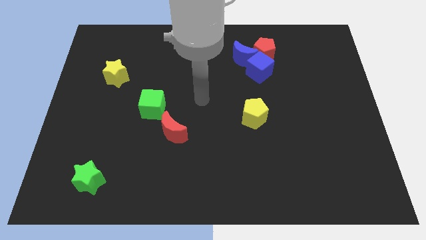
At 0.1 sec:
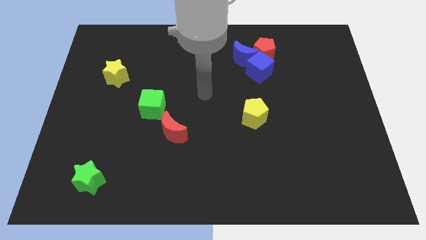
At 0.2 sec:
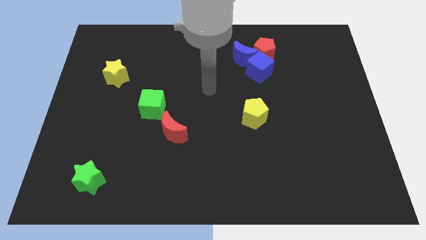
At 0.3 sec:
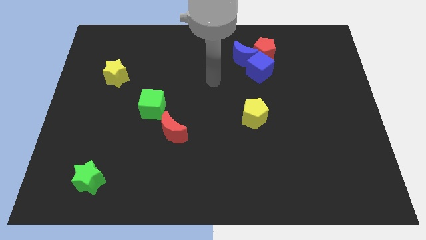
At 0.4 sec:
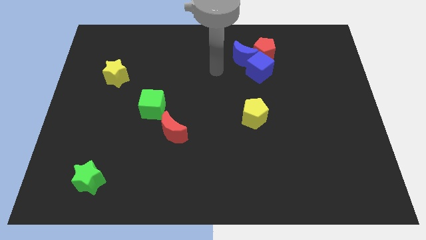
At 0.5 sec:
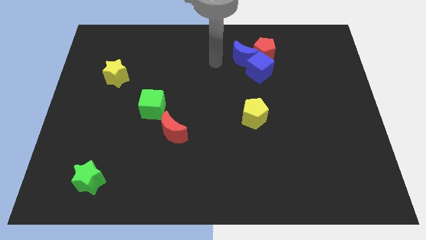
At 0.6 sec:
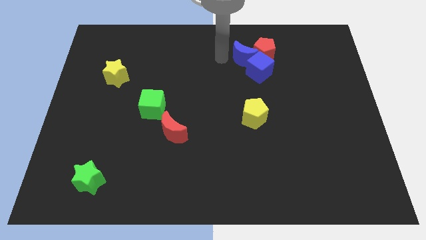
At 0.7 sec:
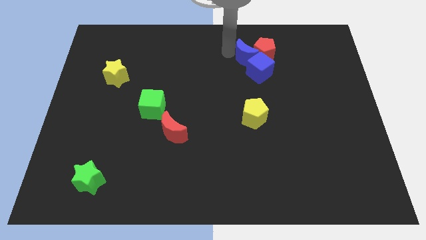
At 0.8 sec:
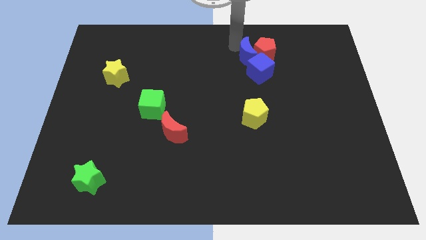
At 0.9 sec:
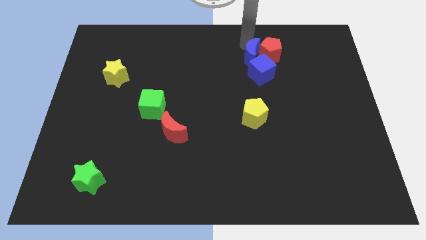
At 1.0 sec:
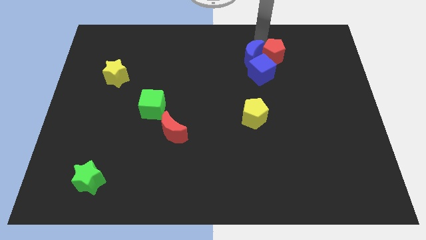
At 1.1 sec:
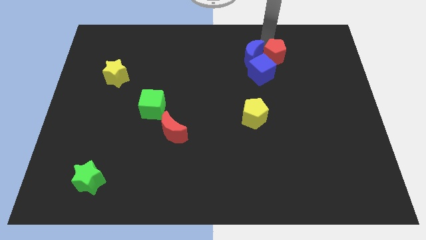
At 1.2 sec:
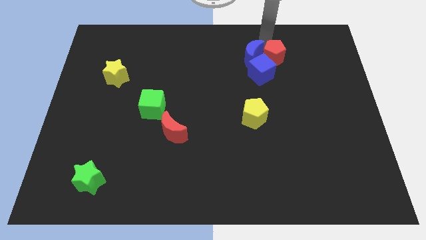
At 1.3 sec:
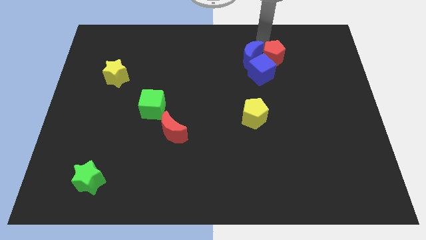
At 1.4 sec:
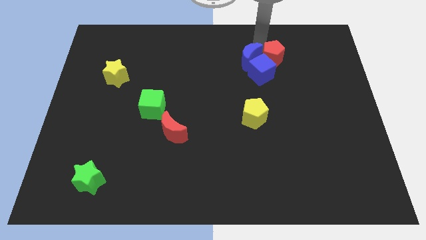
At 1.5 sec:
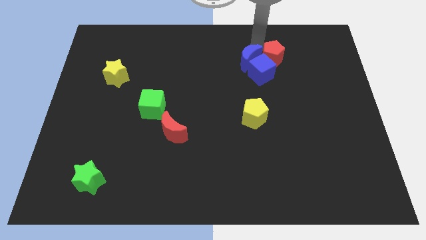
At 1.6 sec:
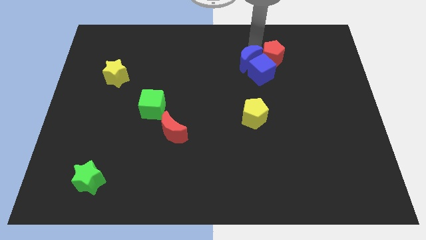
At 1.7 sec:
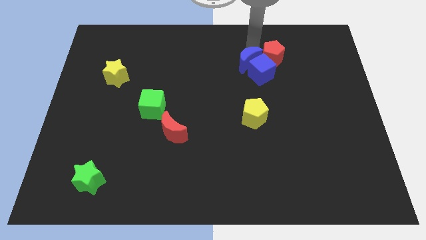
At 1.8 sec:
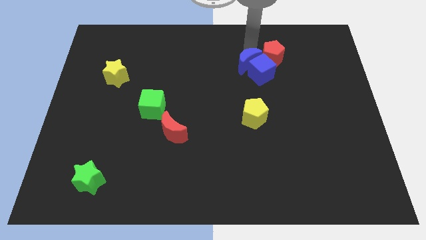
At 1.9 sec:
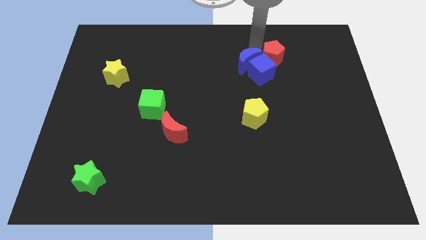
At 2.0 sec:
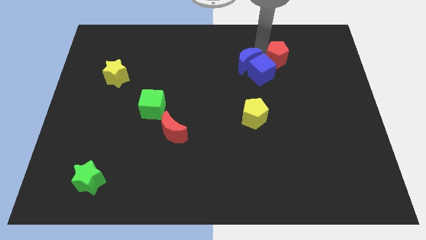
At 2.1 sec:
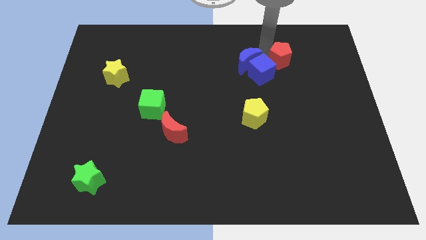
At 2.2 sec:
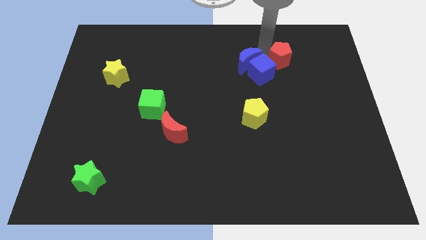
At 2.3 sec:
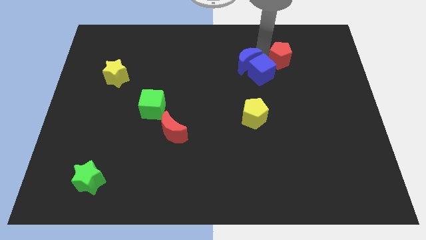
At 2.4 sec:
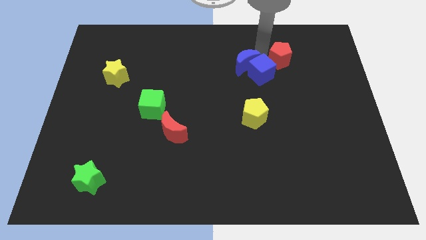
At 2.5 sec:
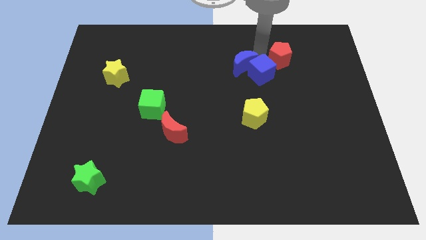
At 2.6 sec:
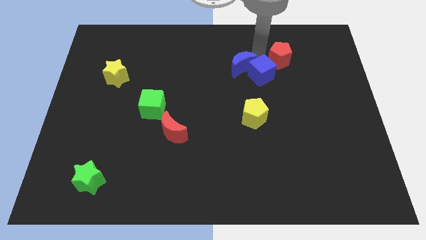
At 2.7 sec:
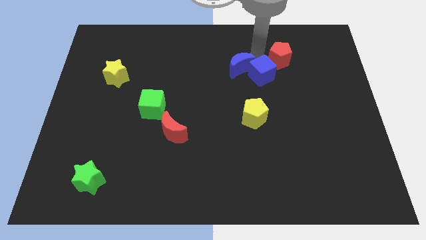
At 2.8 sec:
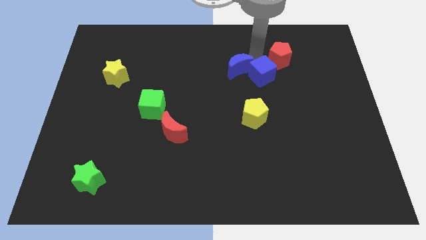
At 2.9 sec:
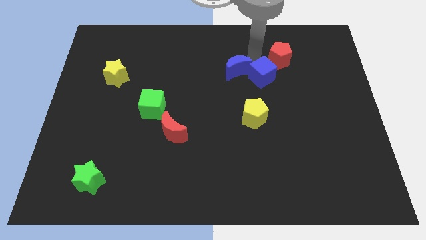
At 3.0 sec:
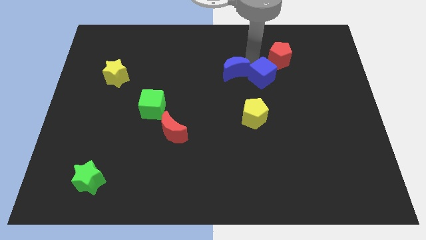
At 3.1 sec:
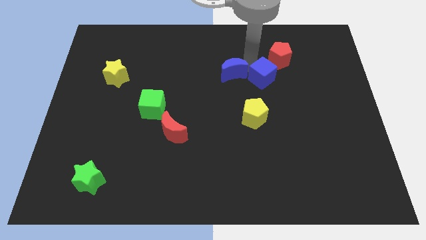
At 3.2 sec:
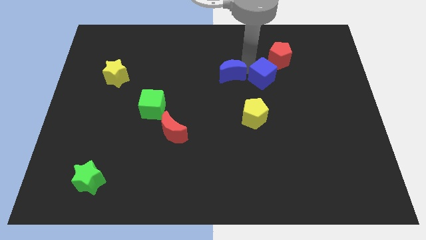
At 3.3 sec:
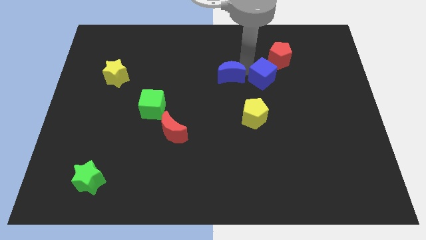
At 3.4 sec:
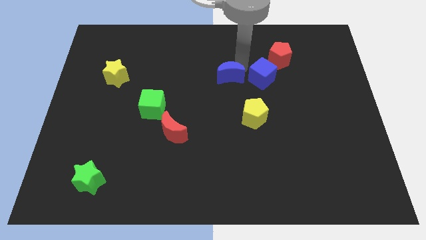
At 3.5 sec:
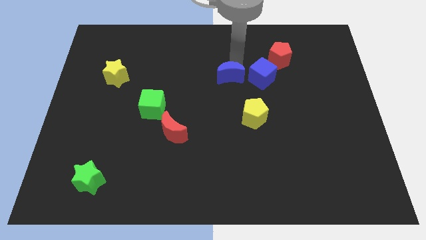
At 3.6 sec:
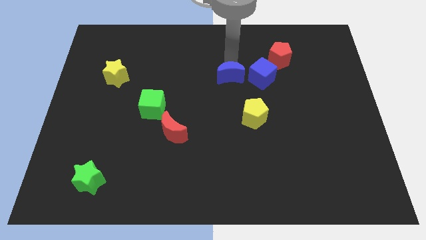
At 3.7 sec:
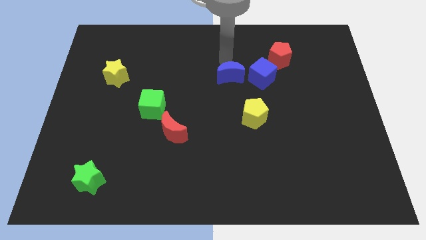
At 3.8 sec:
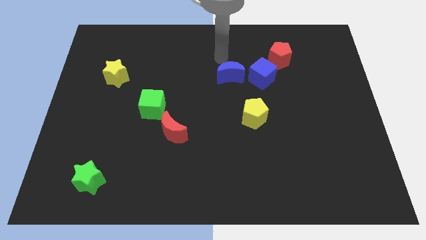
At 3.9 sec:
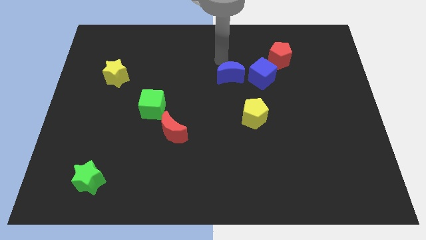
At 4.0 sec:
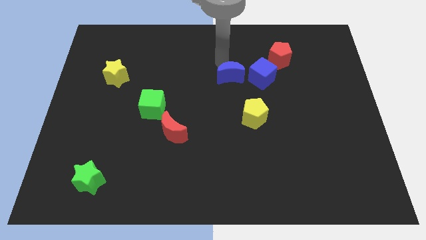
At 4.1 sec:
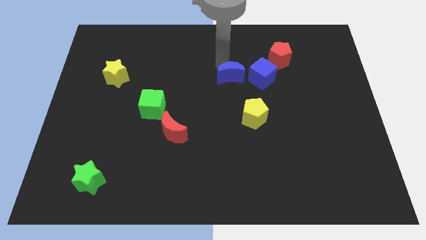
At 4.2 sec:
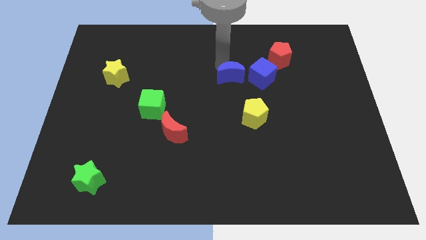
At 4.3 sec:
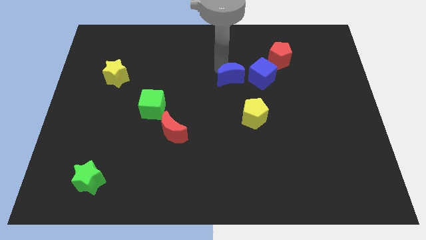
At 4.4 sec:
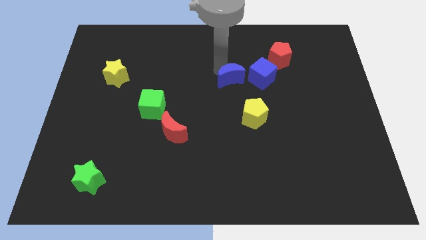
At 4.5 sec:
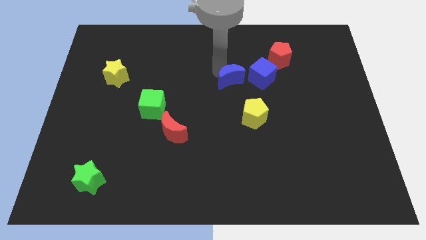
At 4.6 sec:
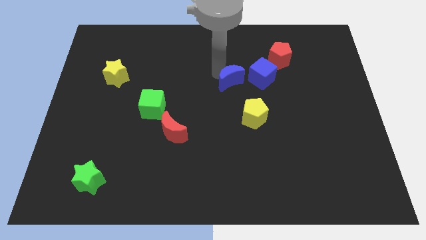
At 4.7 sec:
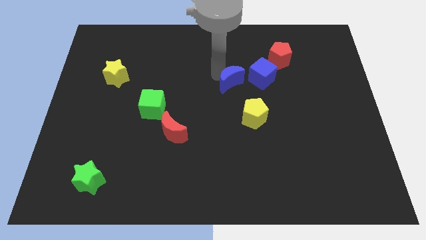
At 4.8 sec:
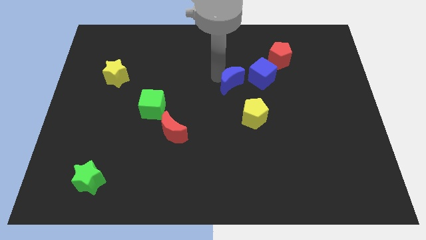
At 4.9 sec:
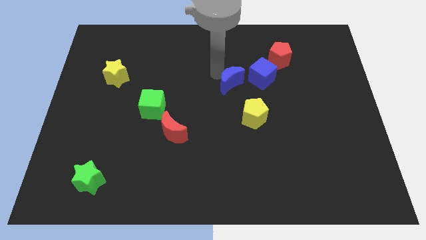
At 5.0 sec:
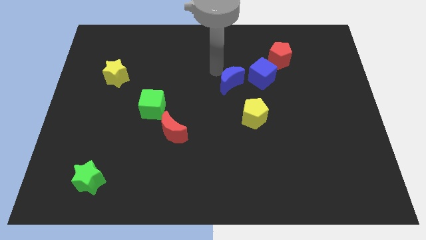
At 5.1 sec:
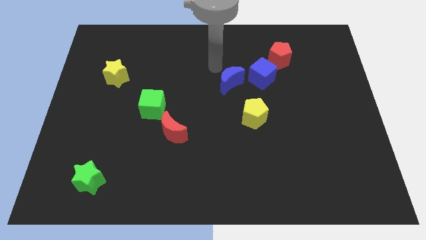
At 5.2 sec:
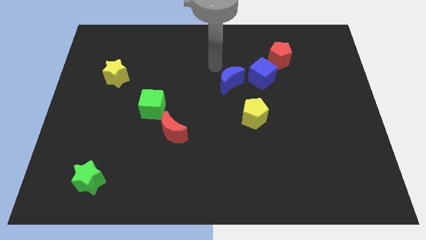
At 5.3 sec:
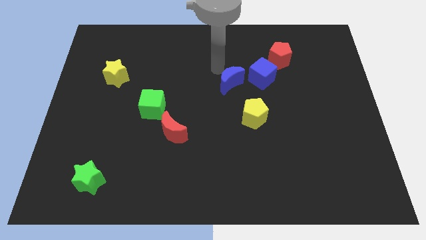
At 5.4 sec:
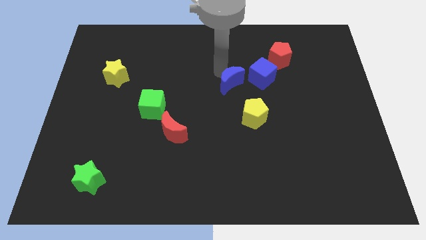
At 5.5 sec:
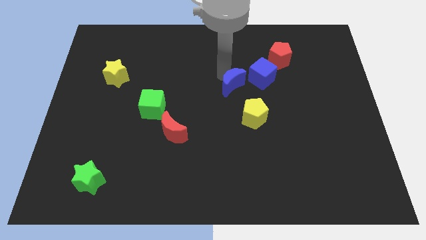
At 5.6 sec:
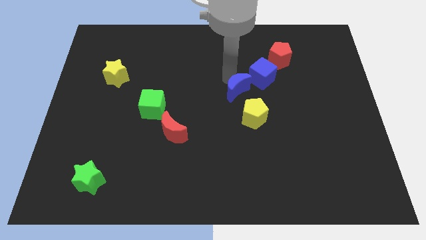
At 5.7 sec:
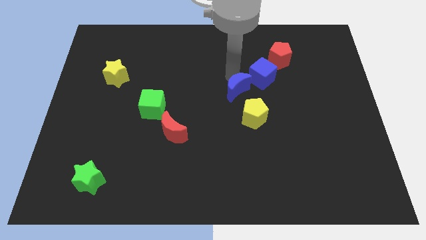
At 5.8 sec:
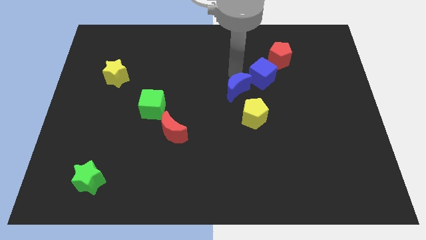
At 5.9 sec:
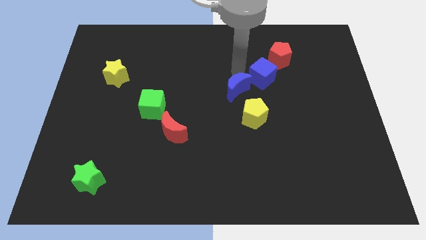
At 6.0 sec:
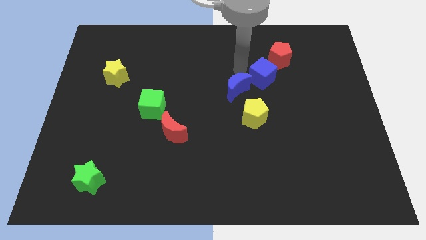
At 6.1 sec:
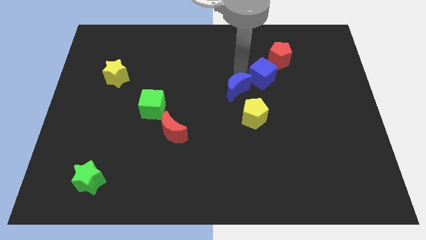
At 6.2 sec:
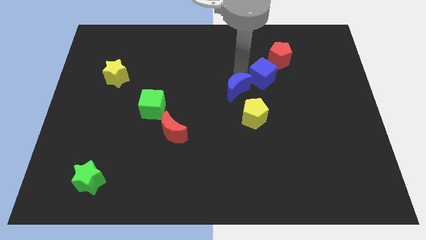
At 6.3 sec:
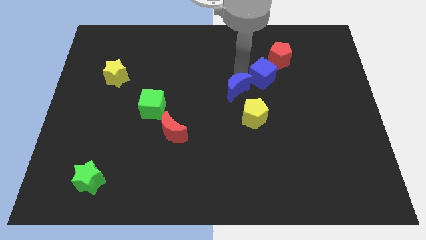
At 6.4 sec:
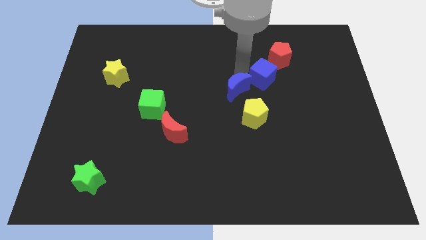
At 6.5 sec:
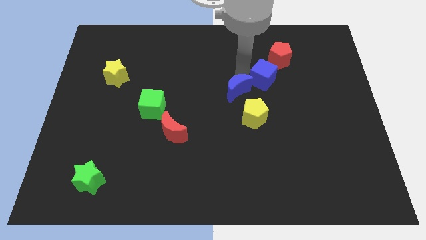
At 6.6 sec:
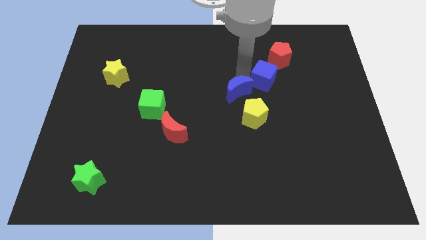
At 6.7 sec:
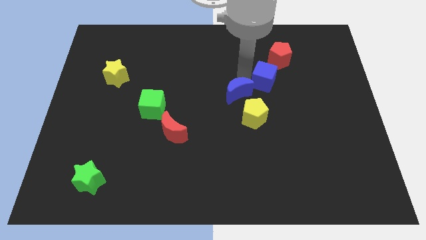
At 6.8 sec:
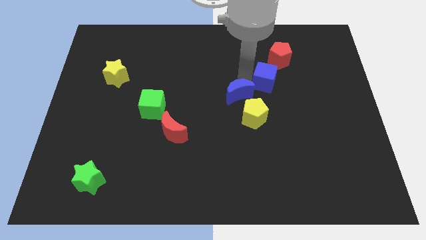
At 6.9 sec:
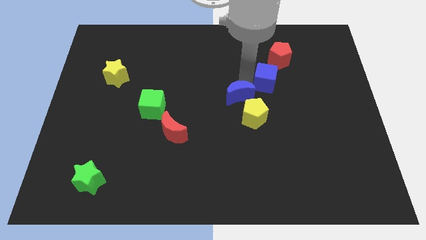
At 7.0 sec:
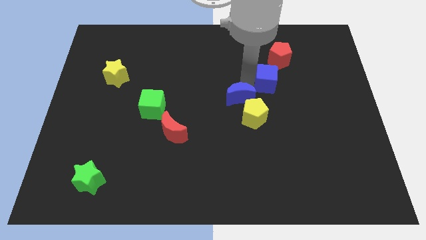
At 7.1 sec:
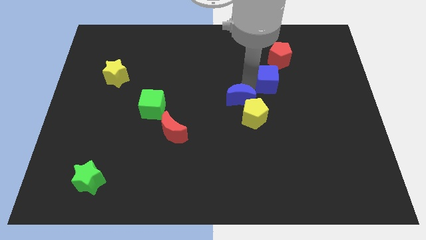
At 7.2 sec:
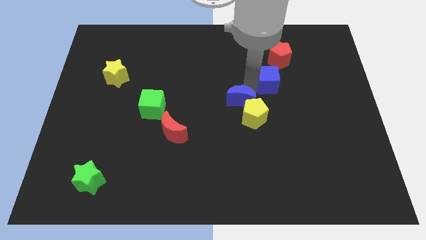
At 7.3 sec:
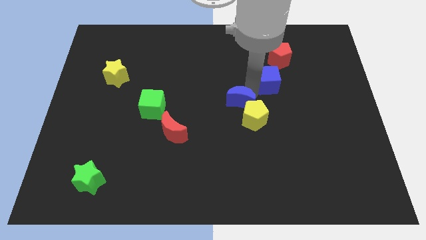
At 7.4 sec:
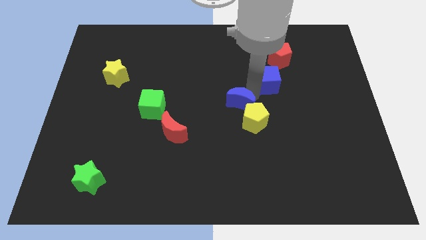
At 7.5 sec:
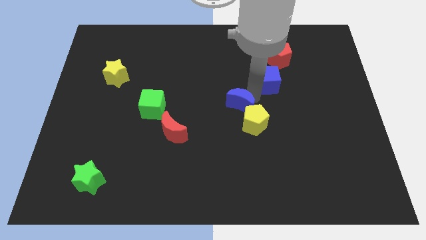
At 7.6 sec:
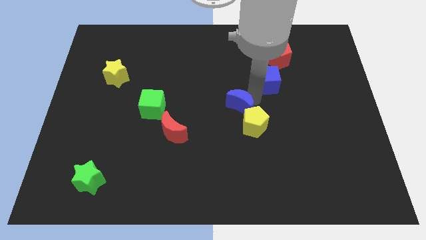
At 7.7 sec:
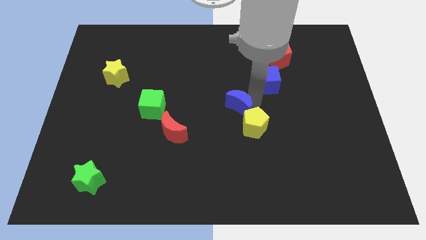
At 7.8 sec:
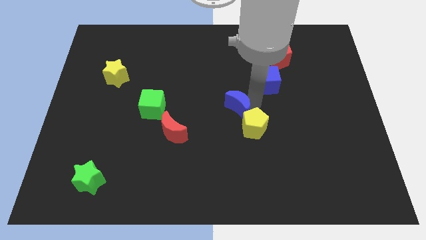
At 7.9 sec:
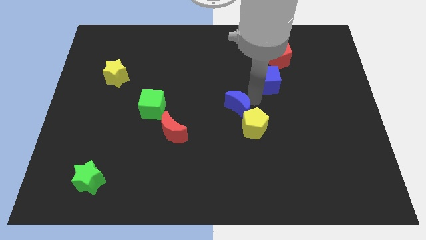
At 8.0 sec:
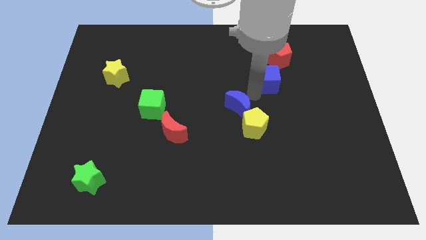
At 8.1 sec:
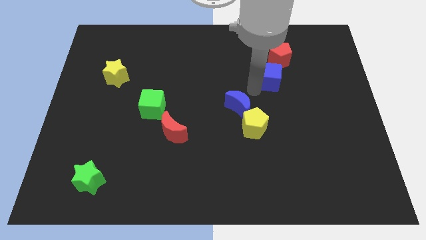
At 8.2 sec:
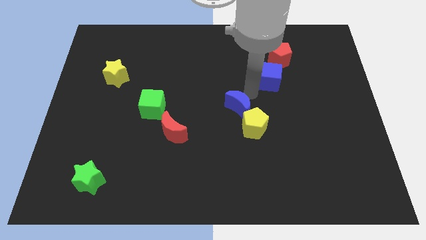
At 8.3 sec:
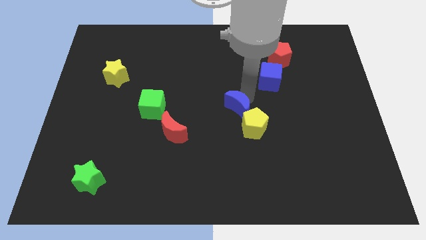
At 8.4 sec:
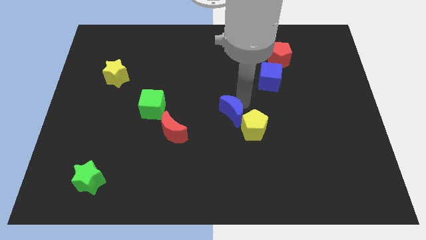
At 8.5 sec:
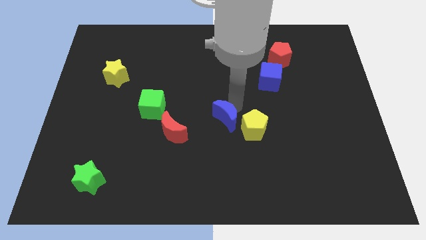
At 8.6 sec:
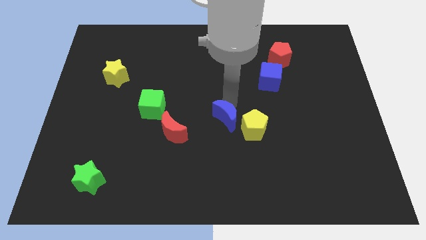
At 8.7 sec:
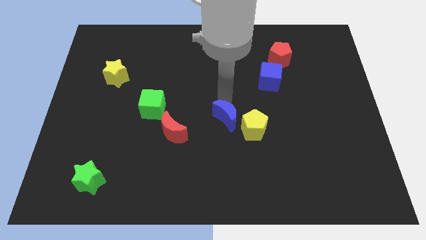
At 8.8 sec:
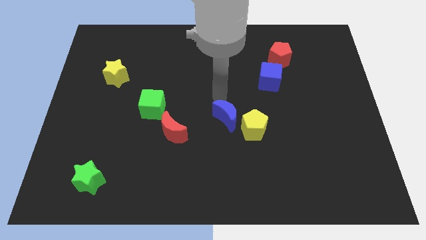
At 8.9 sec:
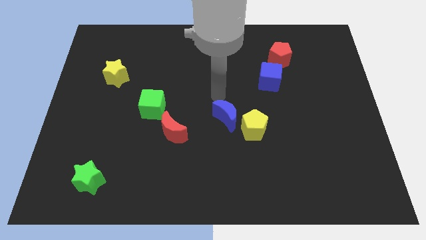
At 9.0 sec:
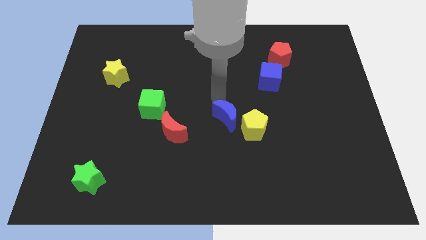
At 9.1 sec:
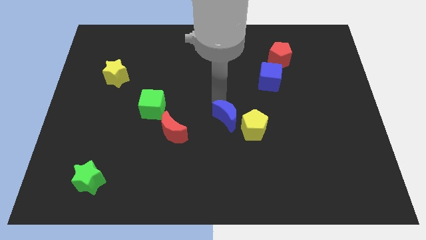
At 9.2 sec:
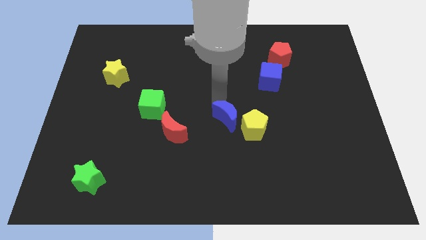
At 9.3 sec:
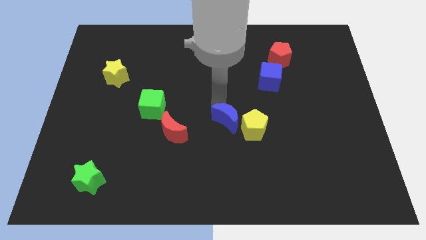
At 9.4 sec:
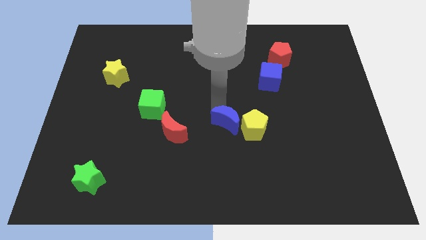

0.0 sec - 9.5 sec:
move the blue moon down
